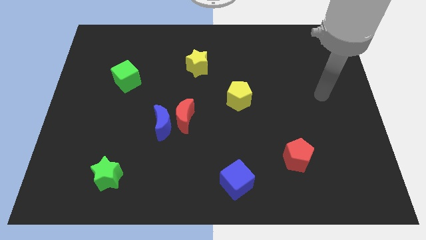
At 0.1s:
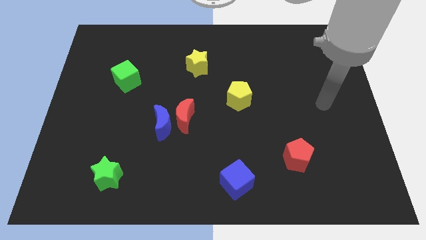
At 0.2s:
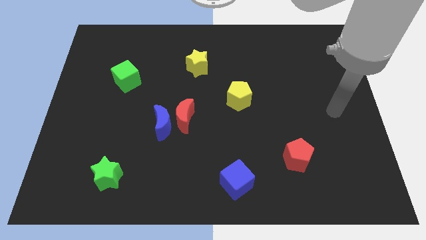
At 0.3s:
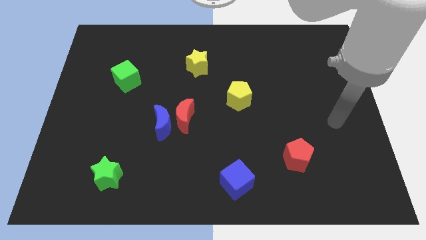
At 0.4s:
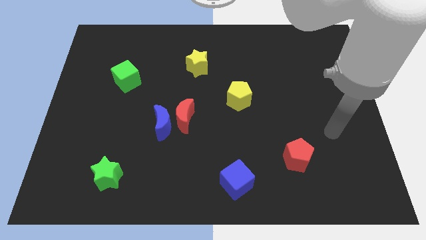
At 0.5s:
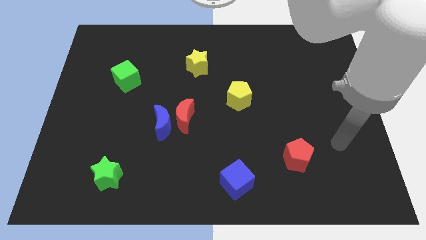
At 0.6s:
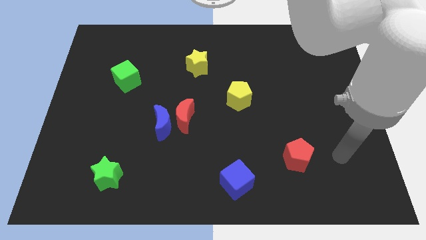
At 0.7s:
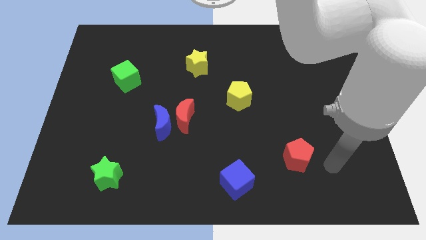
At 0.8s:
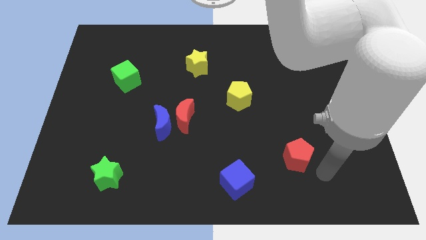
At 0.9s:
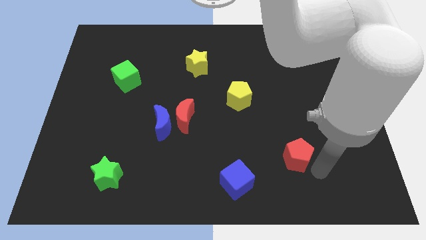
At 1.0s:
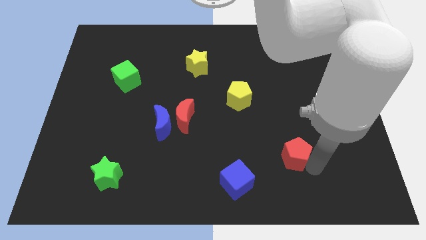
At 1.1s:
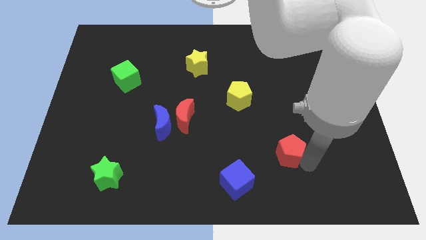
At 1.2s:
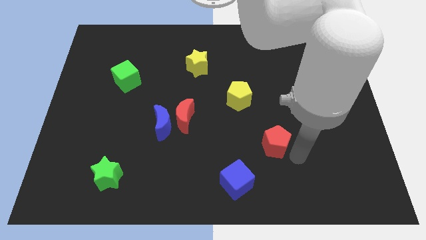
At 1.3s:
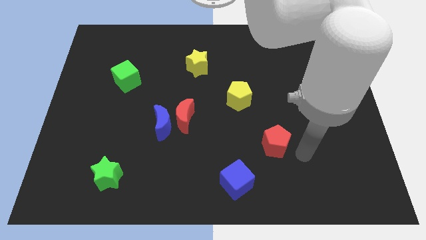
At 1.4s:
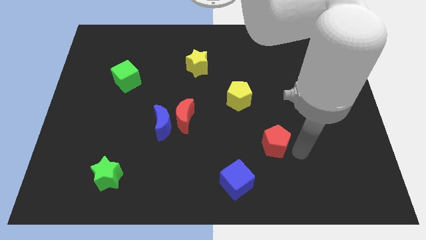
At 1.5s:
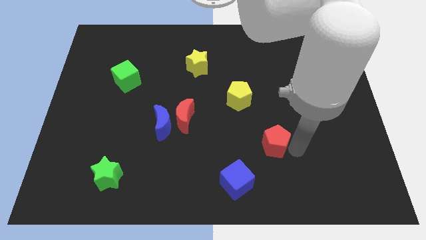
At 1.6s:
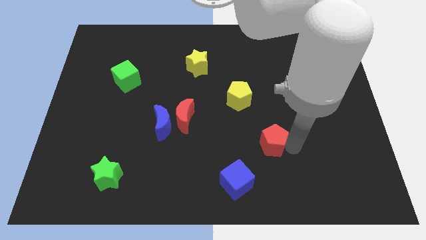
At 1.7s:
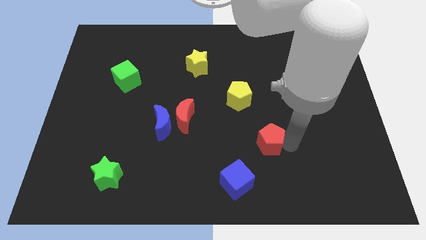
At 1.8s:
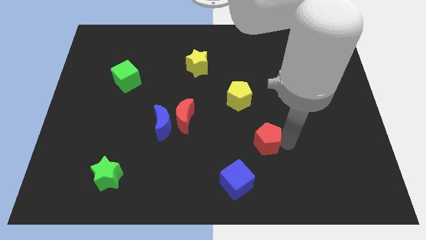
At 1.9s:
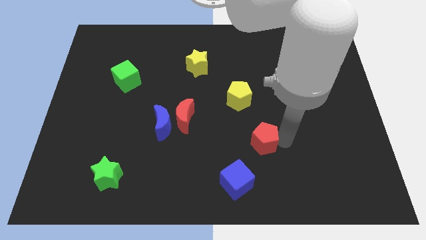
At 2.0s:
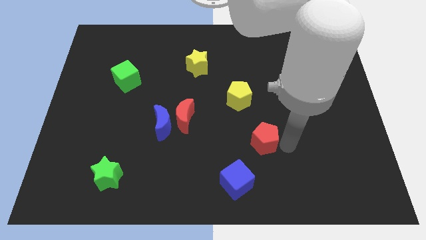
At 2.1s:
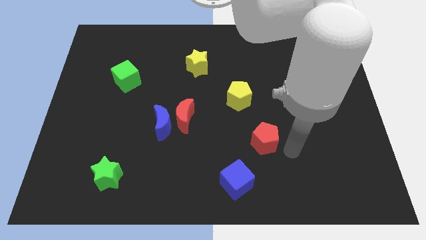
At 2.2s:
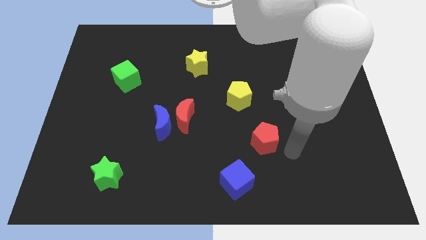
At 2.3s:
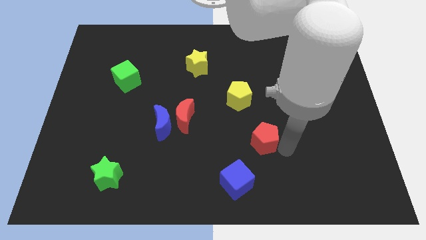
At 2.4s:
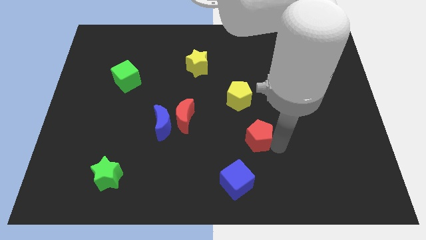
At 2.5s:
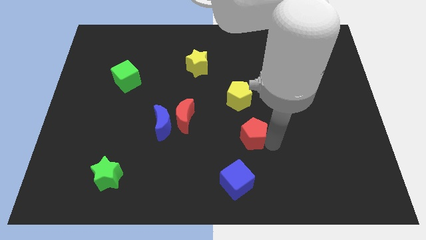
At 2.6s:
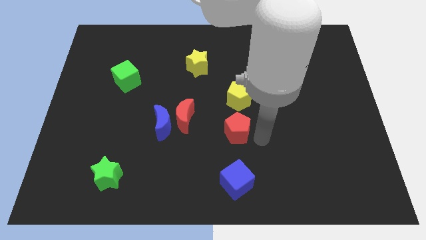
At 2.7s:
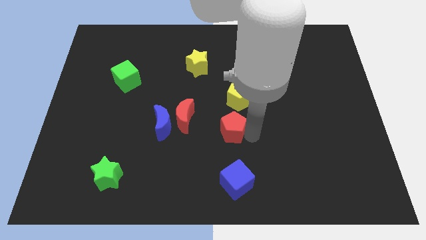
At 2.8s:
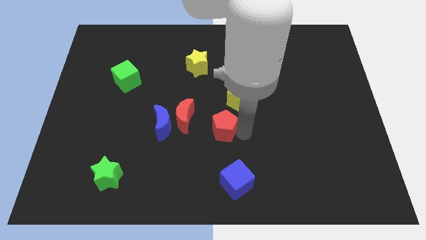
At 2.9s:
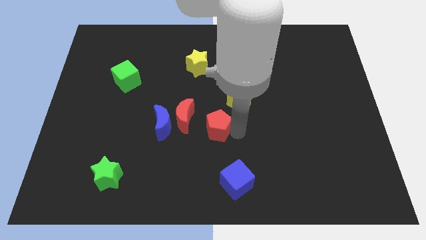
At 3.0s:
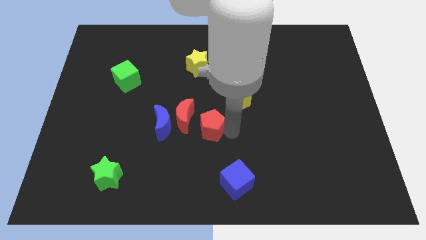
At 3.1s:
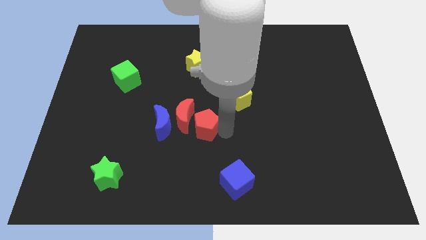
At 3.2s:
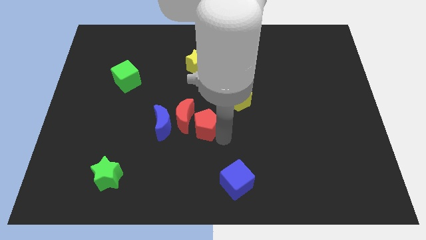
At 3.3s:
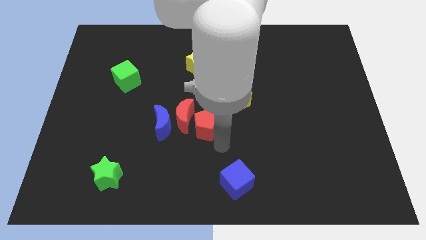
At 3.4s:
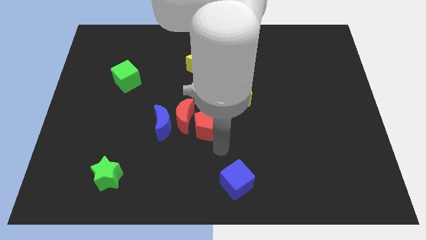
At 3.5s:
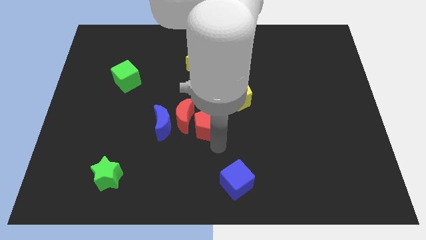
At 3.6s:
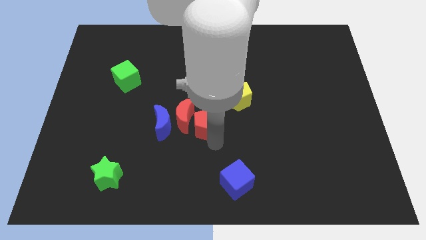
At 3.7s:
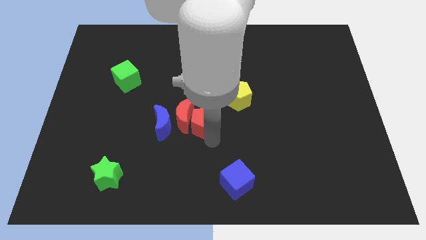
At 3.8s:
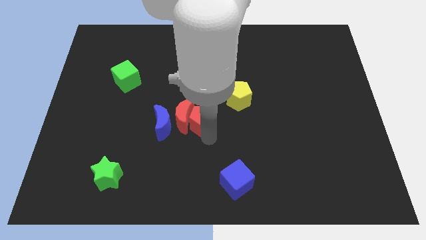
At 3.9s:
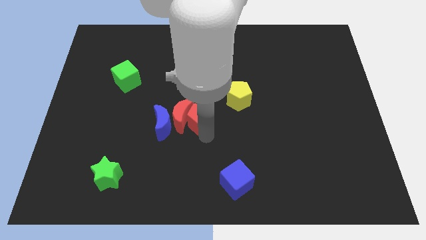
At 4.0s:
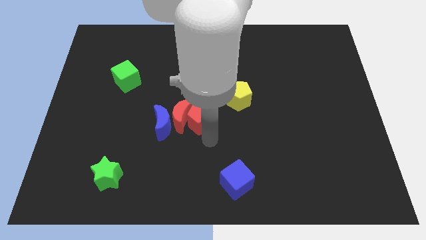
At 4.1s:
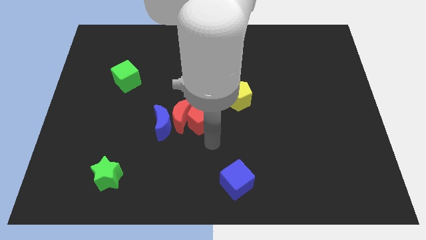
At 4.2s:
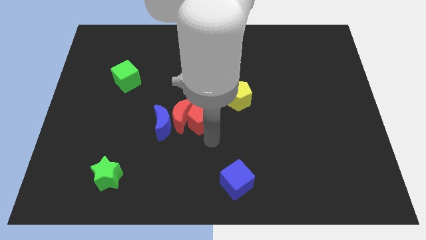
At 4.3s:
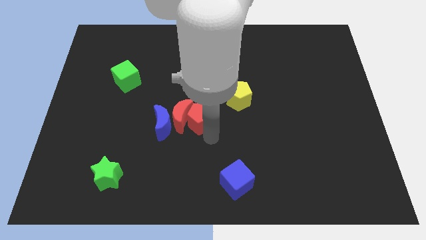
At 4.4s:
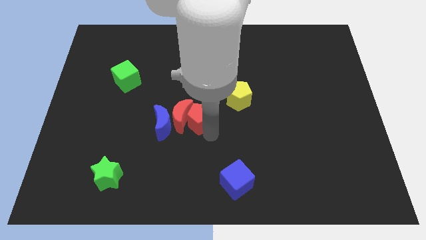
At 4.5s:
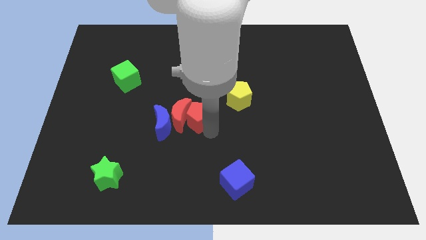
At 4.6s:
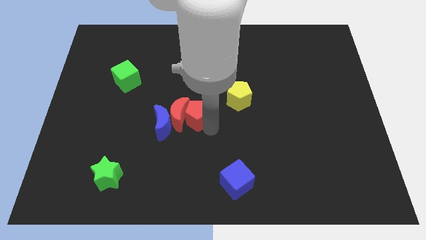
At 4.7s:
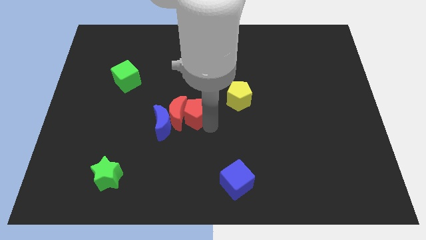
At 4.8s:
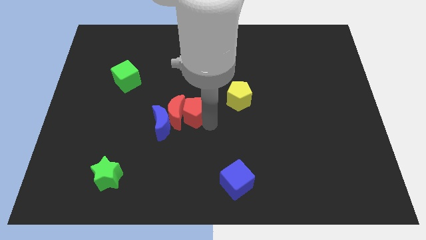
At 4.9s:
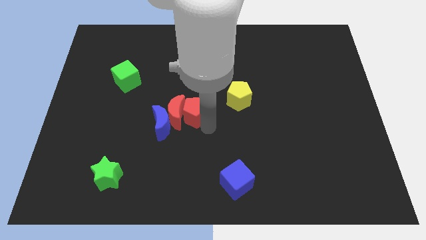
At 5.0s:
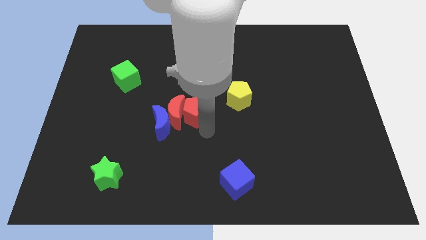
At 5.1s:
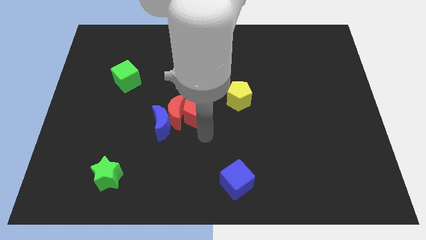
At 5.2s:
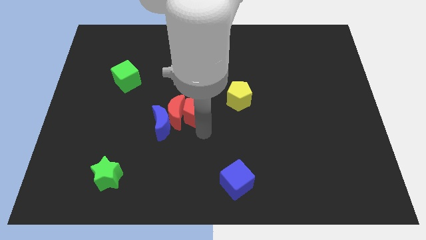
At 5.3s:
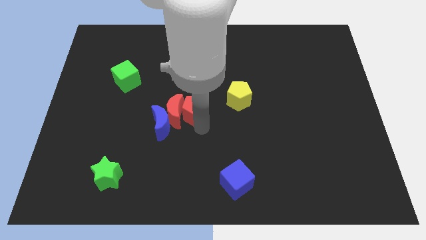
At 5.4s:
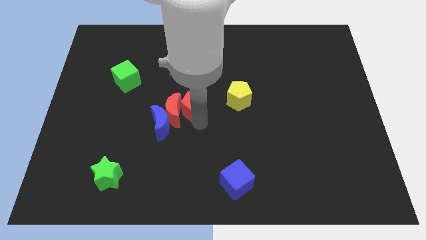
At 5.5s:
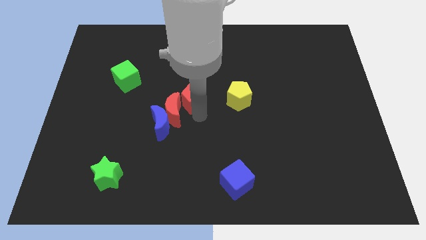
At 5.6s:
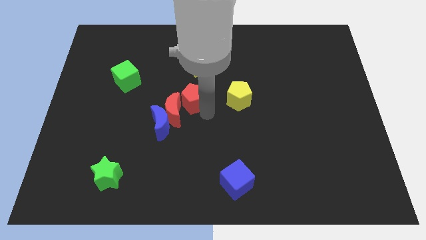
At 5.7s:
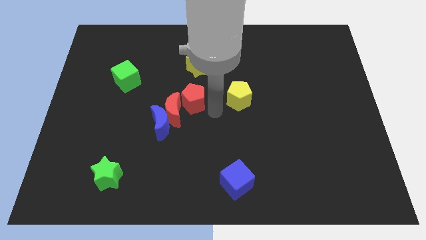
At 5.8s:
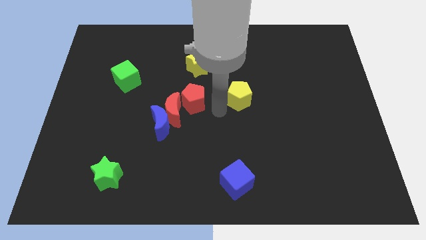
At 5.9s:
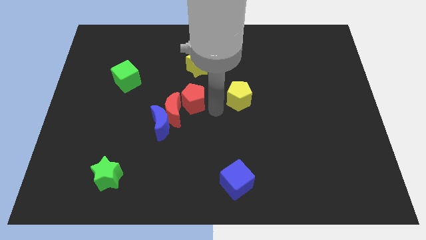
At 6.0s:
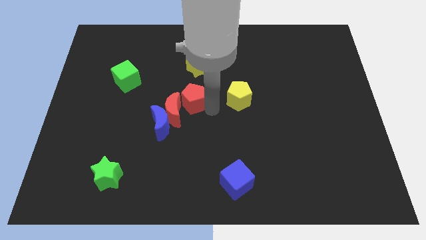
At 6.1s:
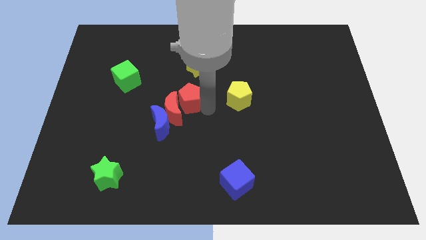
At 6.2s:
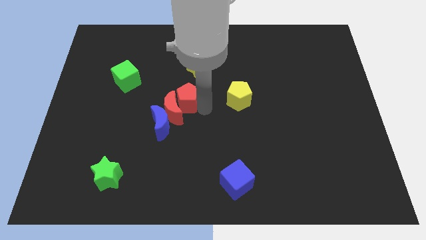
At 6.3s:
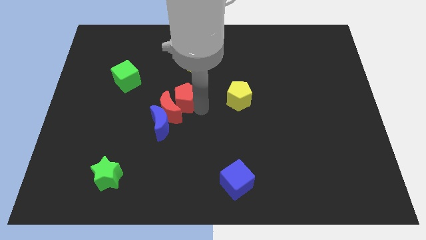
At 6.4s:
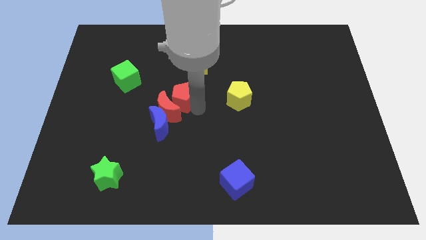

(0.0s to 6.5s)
move the red pentagon to the top side of the blue moon

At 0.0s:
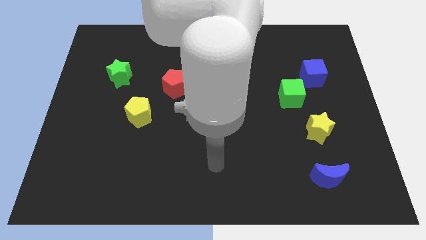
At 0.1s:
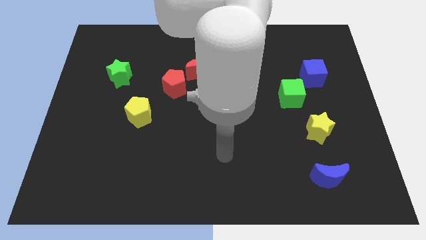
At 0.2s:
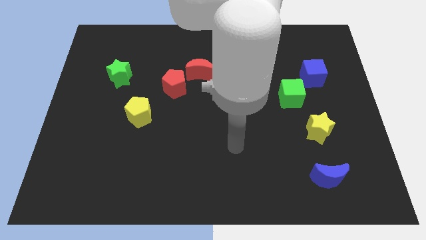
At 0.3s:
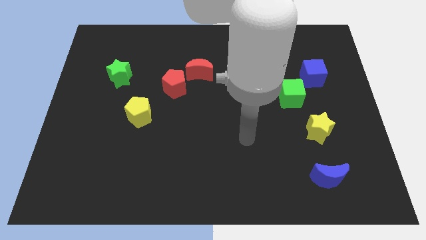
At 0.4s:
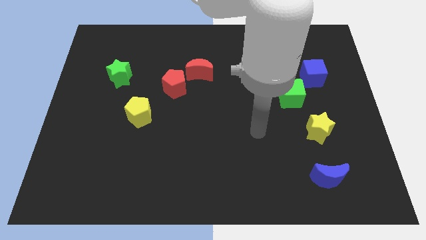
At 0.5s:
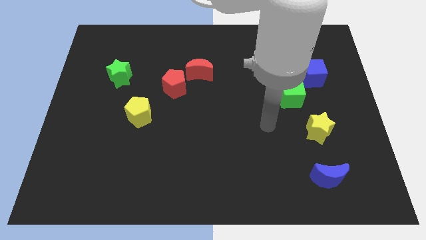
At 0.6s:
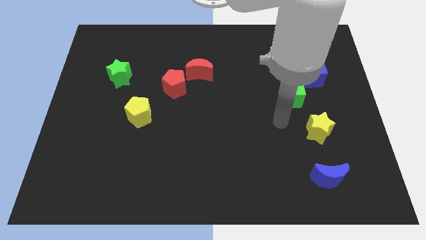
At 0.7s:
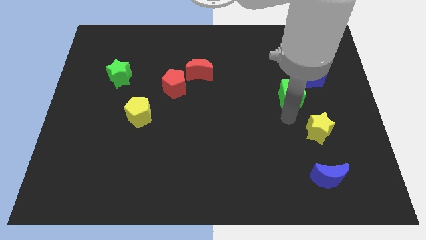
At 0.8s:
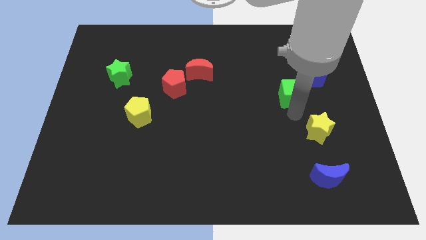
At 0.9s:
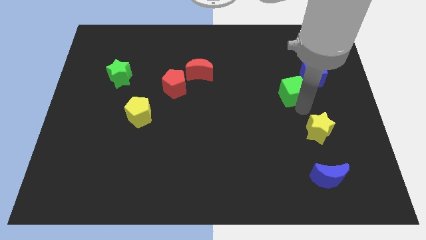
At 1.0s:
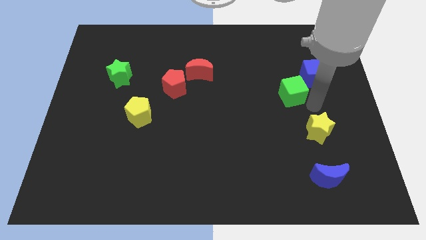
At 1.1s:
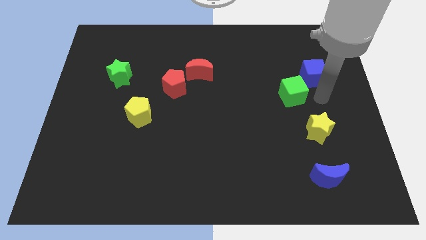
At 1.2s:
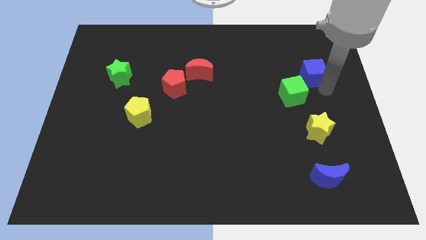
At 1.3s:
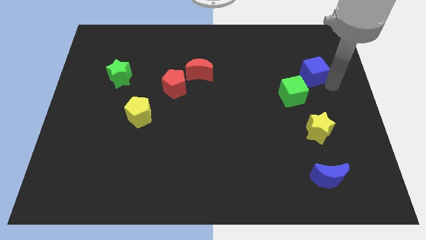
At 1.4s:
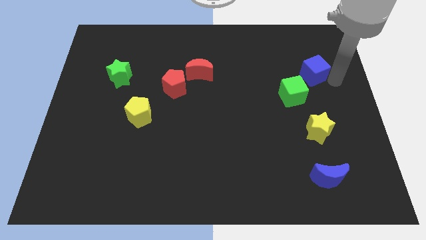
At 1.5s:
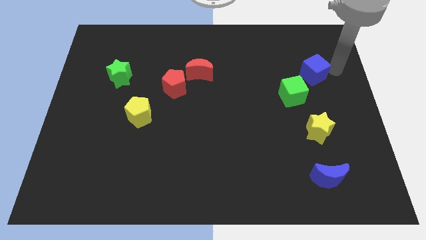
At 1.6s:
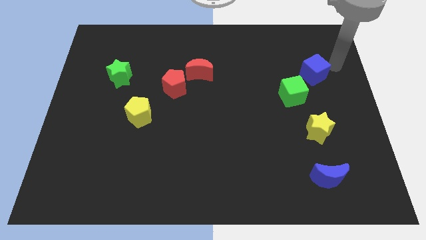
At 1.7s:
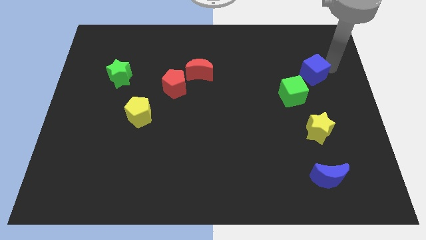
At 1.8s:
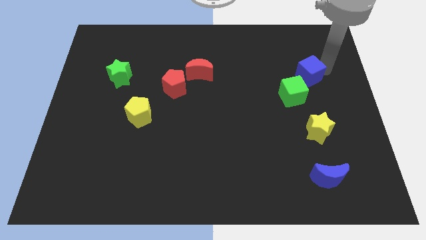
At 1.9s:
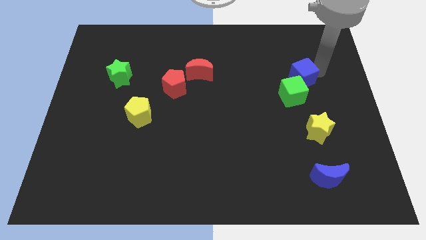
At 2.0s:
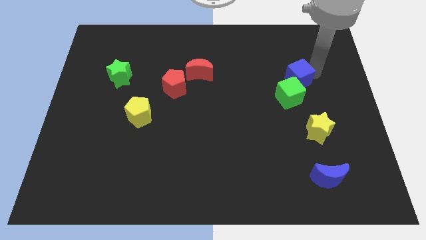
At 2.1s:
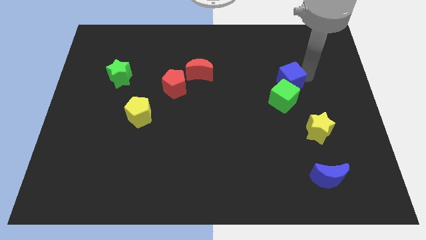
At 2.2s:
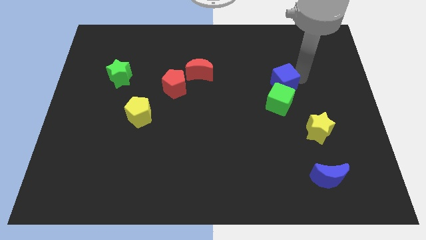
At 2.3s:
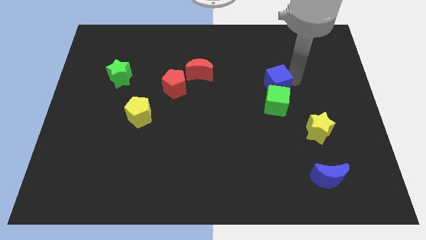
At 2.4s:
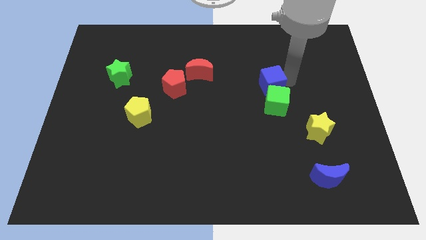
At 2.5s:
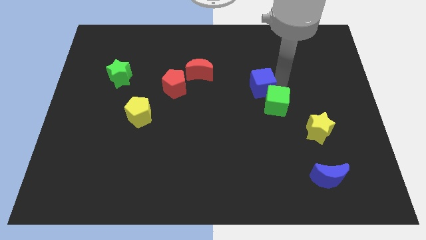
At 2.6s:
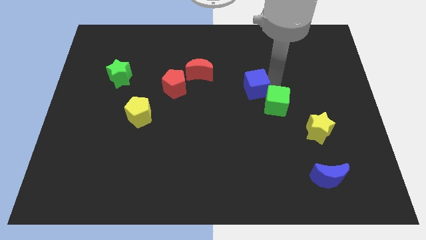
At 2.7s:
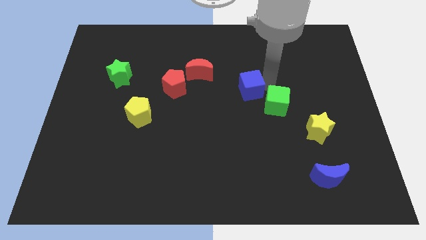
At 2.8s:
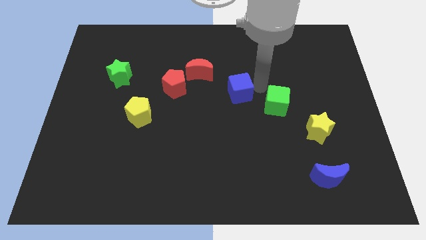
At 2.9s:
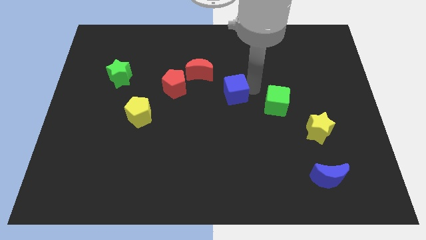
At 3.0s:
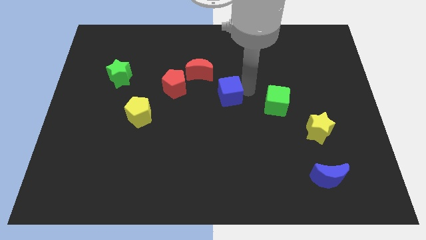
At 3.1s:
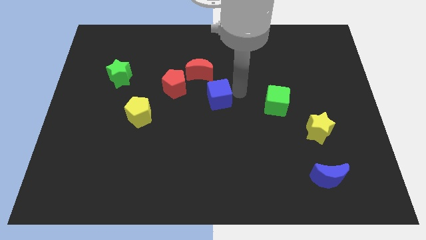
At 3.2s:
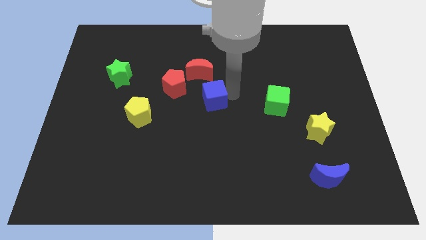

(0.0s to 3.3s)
move the blue cube to the bottom right of the red pentagon
